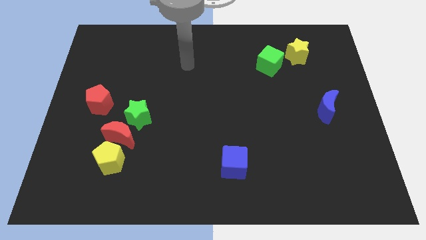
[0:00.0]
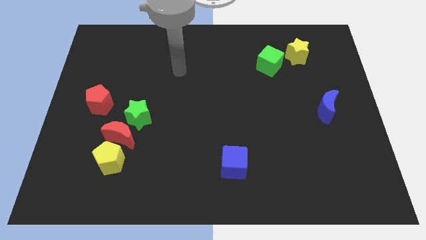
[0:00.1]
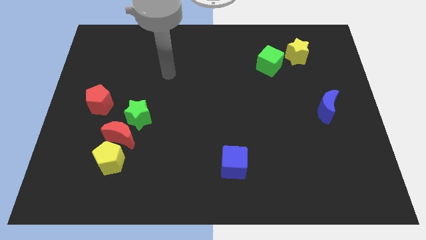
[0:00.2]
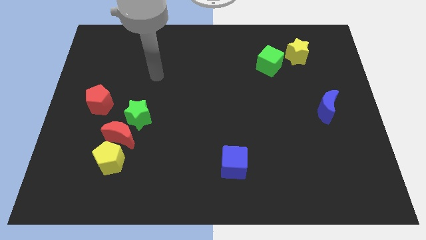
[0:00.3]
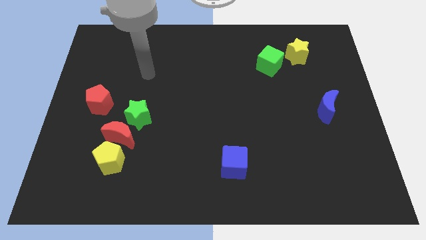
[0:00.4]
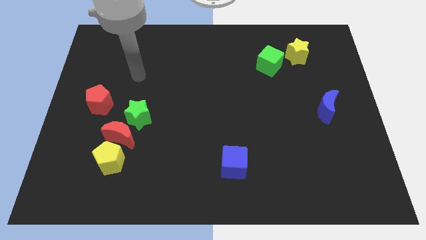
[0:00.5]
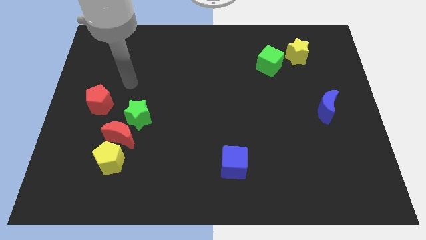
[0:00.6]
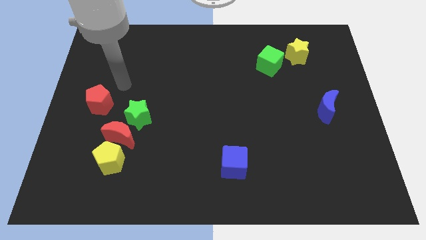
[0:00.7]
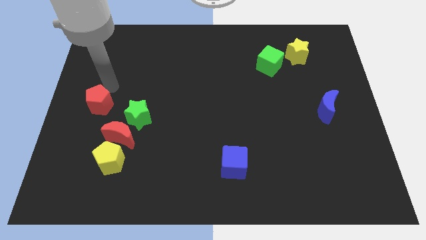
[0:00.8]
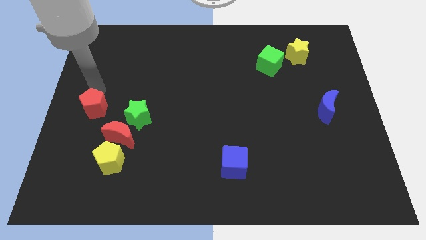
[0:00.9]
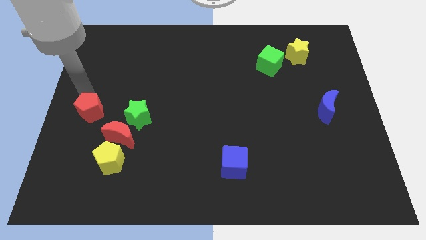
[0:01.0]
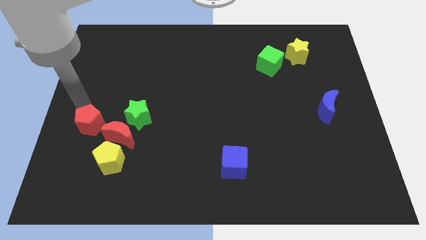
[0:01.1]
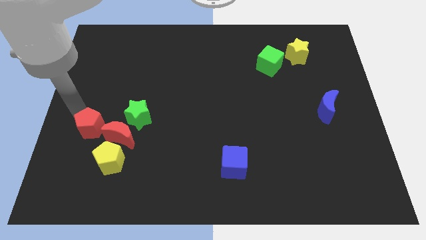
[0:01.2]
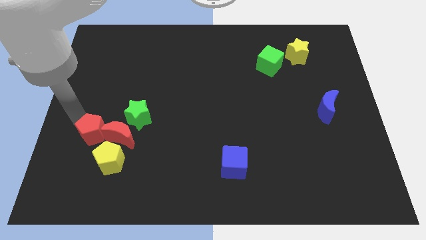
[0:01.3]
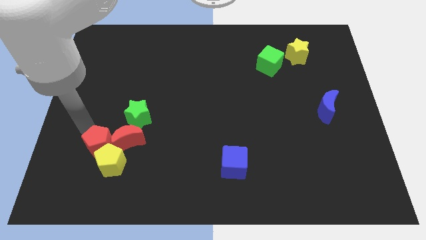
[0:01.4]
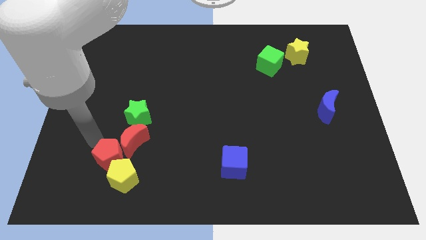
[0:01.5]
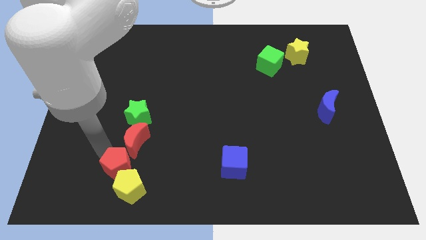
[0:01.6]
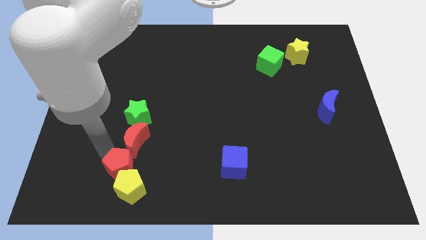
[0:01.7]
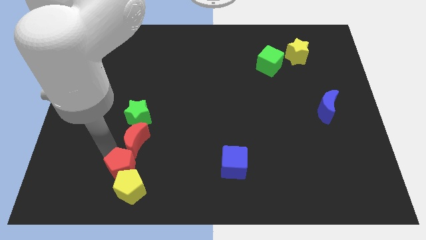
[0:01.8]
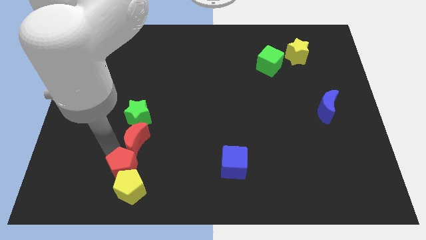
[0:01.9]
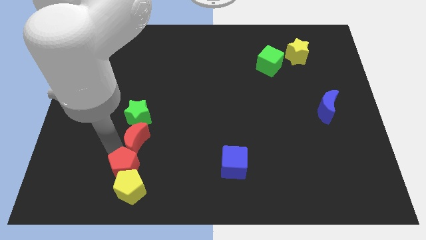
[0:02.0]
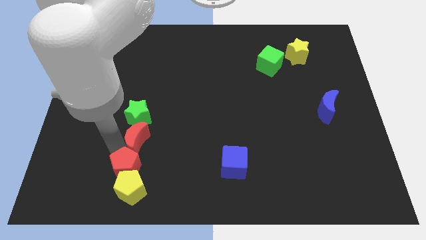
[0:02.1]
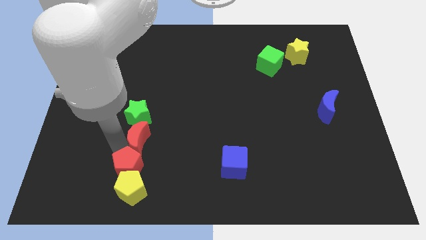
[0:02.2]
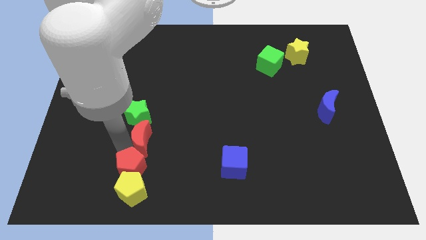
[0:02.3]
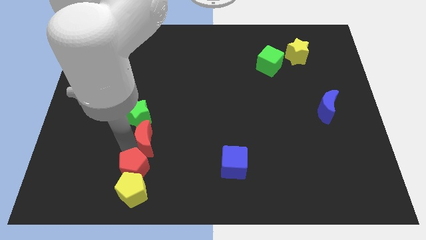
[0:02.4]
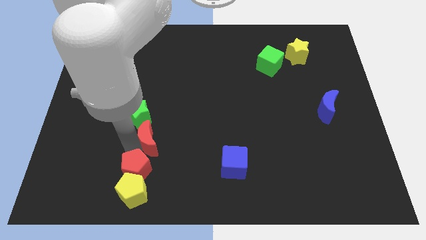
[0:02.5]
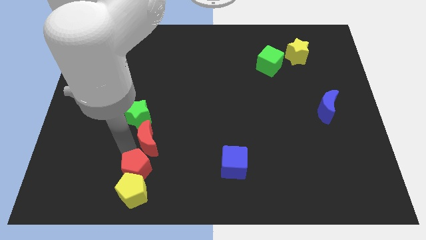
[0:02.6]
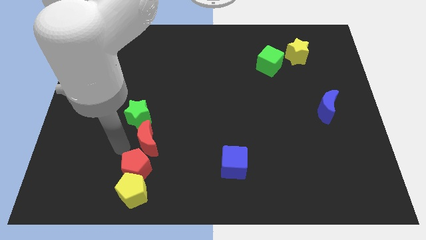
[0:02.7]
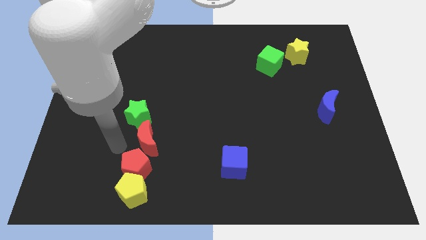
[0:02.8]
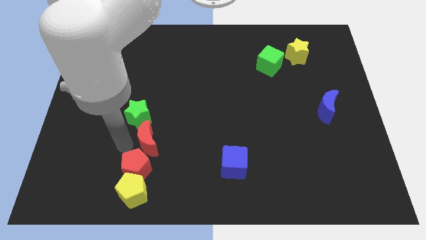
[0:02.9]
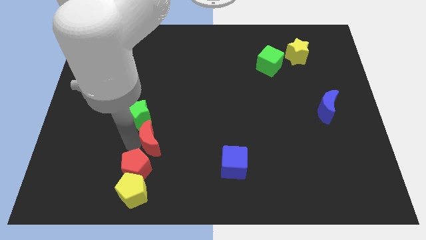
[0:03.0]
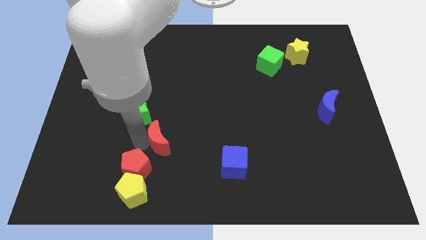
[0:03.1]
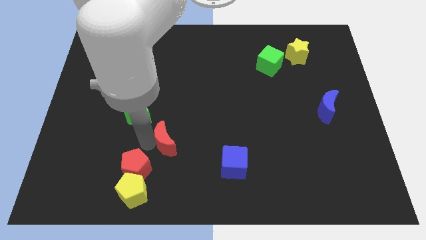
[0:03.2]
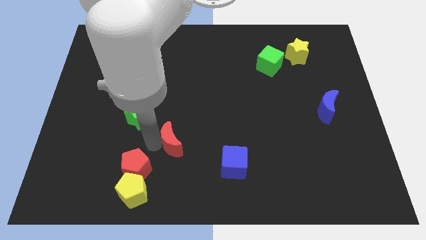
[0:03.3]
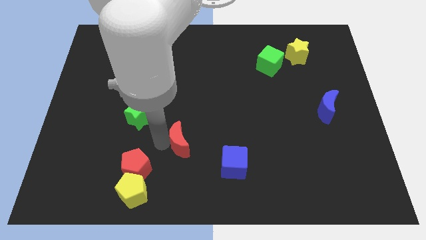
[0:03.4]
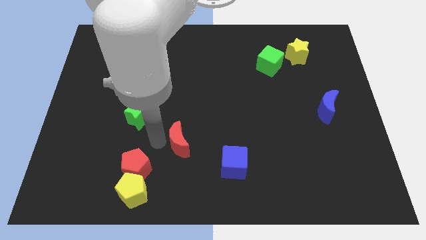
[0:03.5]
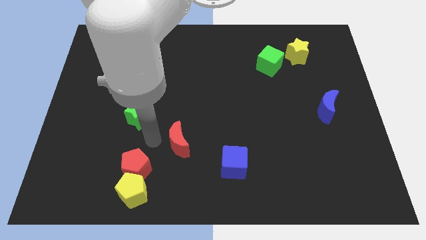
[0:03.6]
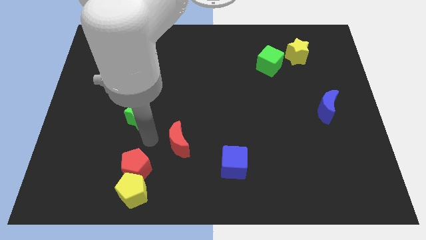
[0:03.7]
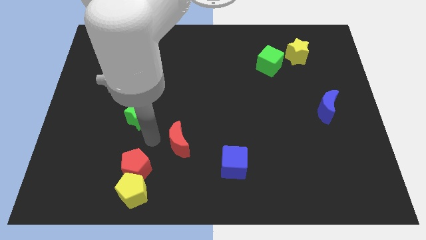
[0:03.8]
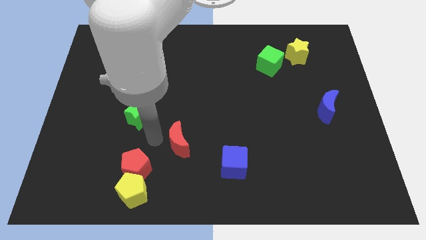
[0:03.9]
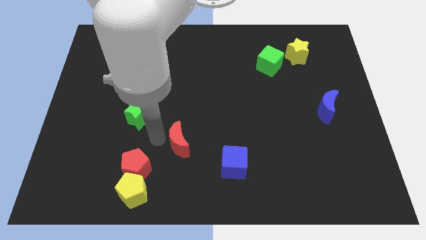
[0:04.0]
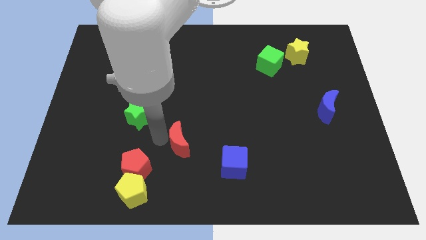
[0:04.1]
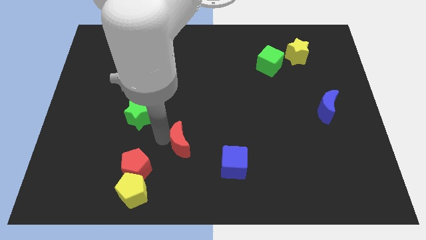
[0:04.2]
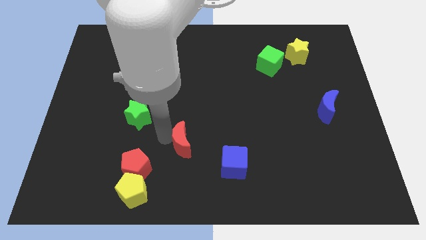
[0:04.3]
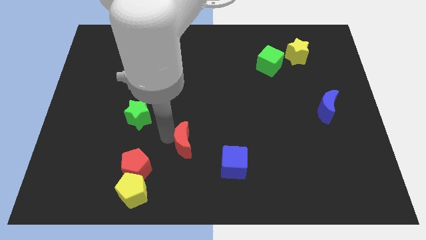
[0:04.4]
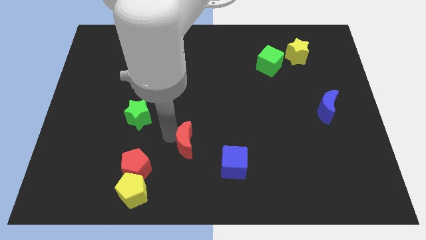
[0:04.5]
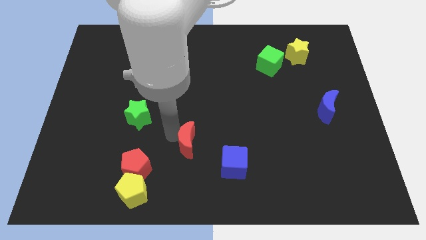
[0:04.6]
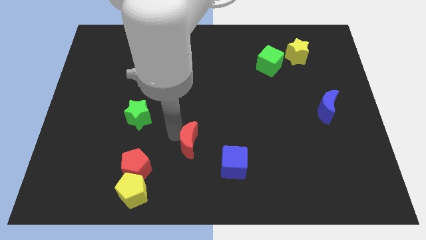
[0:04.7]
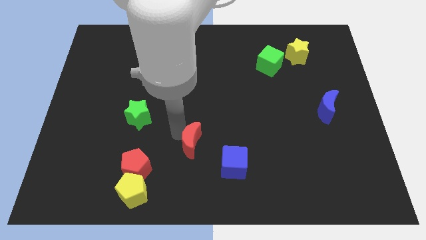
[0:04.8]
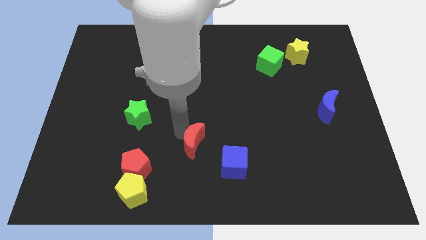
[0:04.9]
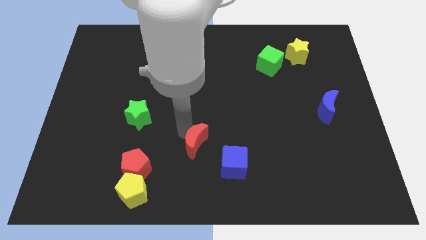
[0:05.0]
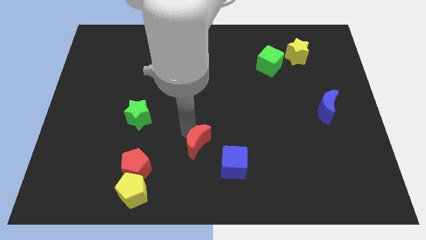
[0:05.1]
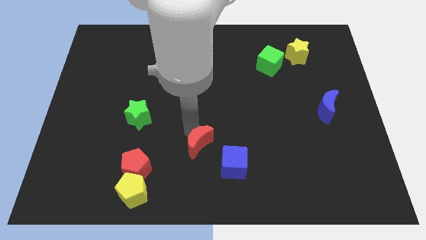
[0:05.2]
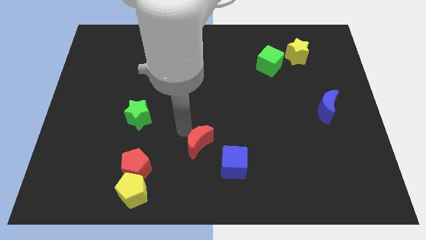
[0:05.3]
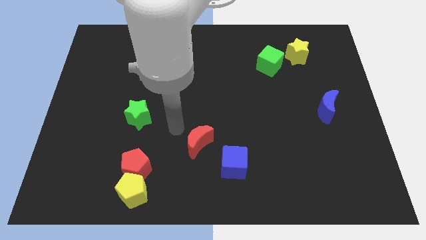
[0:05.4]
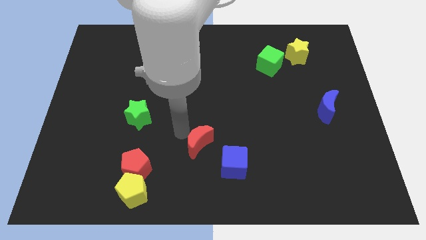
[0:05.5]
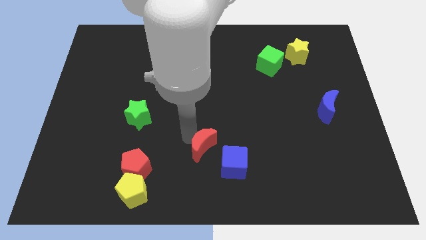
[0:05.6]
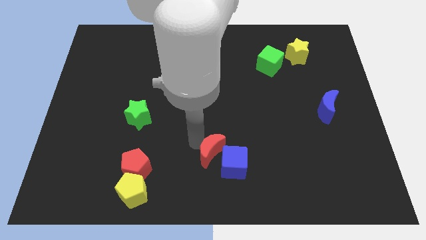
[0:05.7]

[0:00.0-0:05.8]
move the red moon close to the blue cube

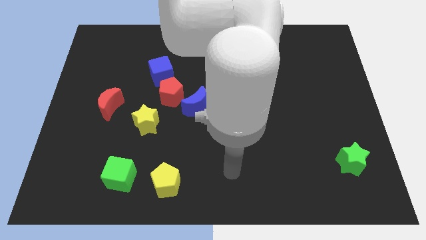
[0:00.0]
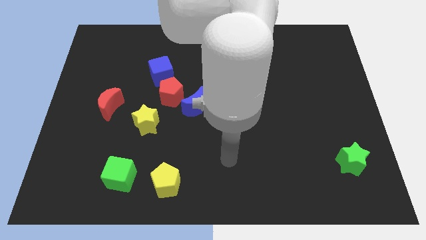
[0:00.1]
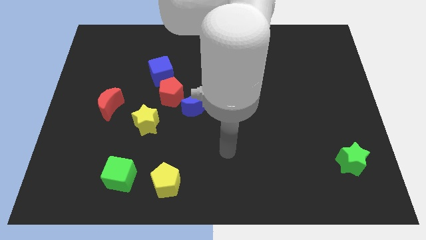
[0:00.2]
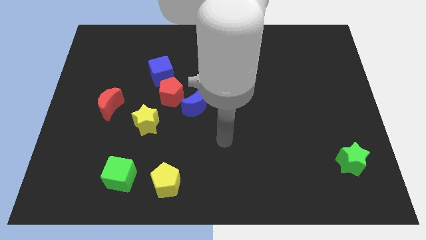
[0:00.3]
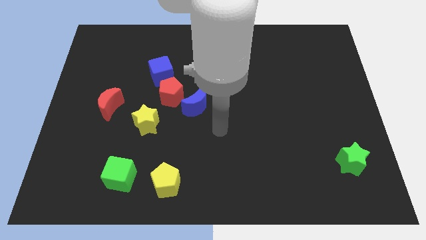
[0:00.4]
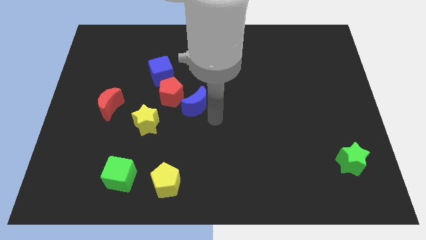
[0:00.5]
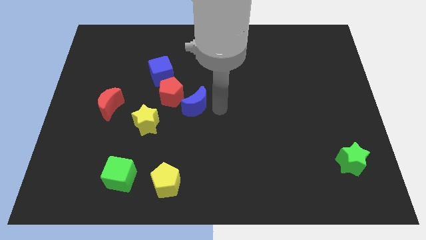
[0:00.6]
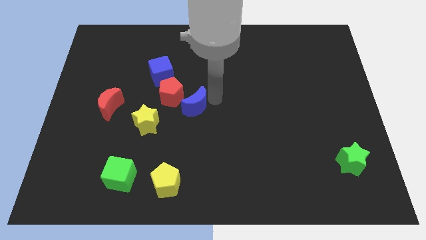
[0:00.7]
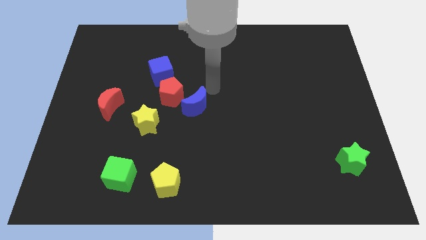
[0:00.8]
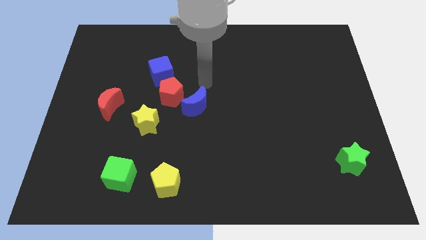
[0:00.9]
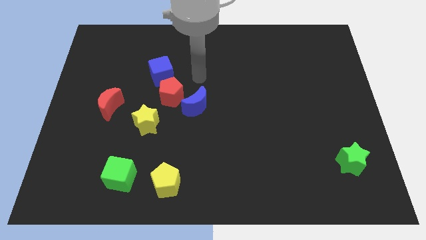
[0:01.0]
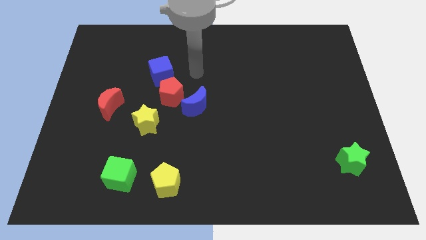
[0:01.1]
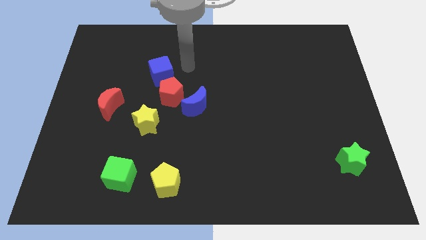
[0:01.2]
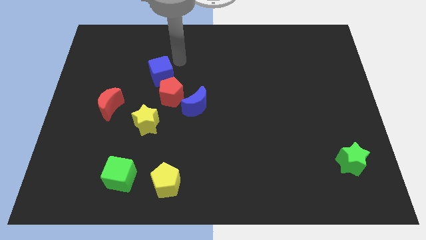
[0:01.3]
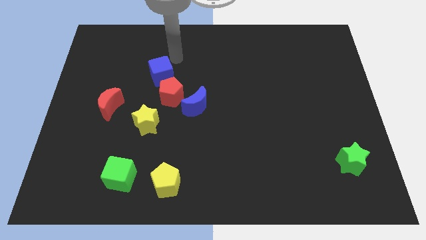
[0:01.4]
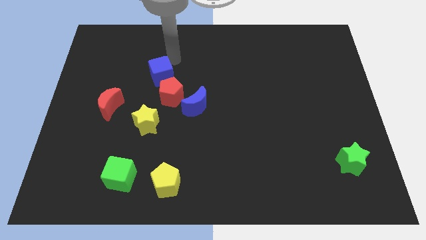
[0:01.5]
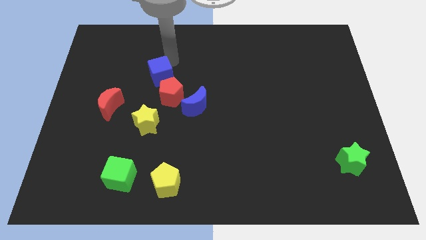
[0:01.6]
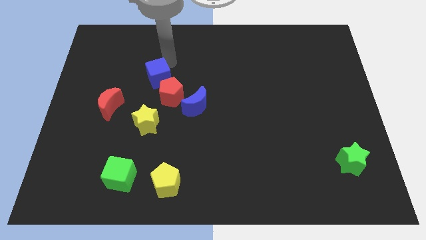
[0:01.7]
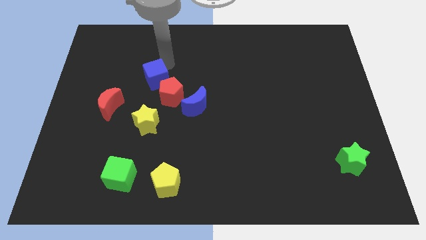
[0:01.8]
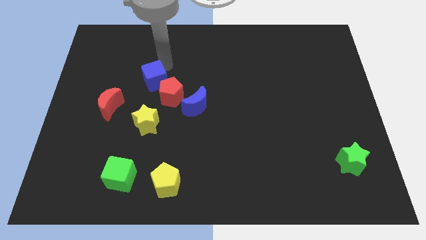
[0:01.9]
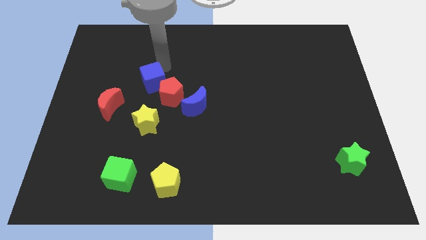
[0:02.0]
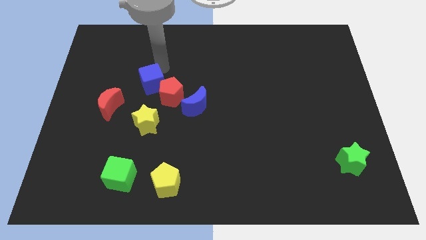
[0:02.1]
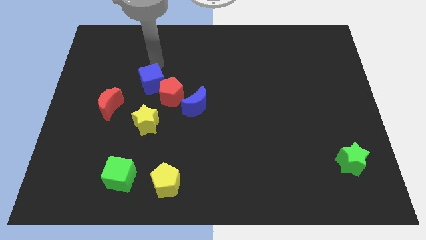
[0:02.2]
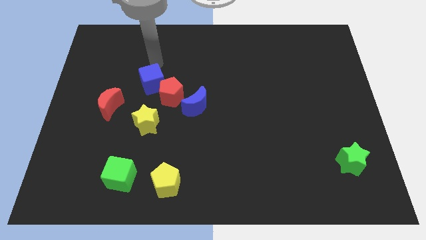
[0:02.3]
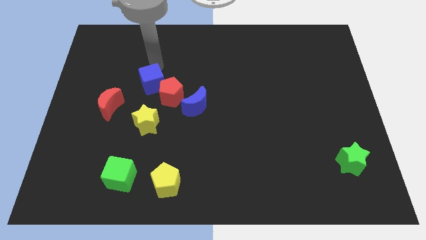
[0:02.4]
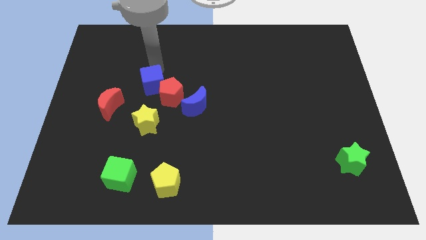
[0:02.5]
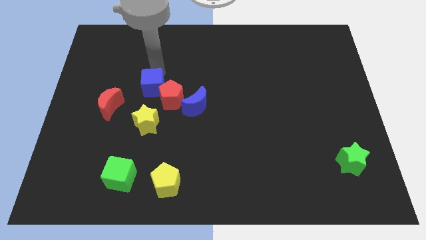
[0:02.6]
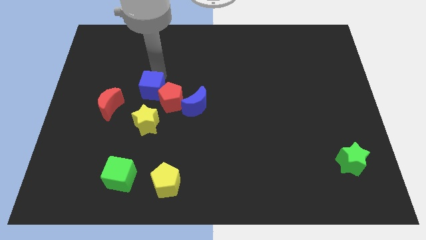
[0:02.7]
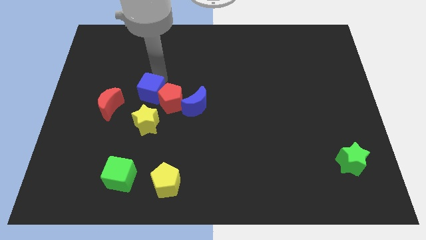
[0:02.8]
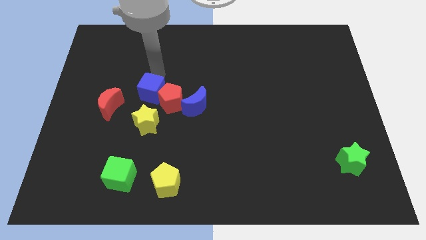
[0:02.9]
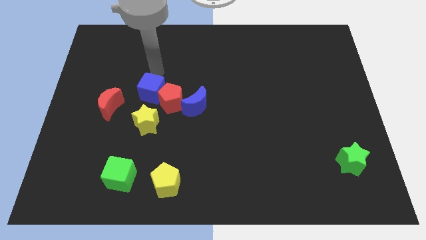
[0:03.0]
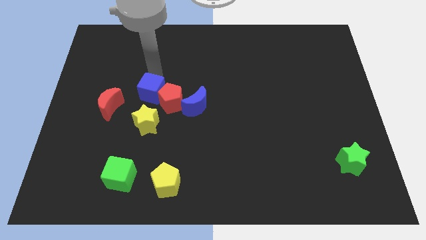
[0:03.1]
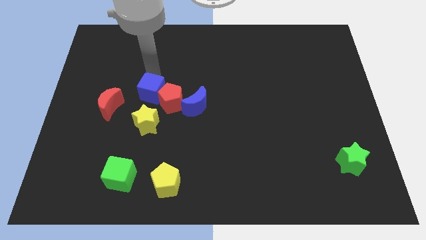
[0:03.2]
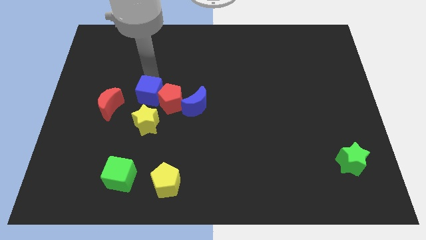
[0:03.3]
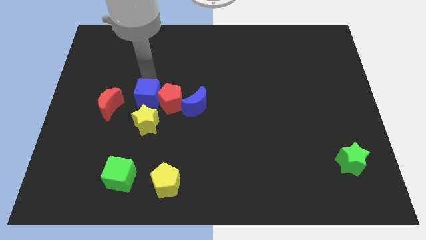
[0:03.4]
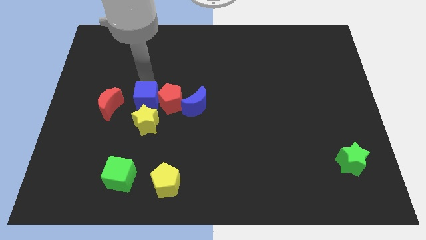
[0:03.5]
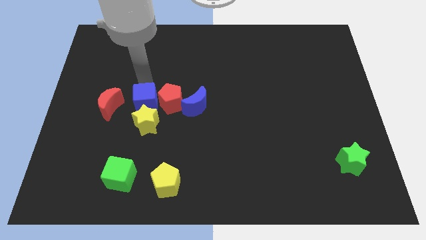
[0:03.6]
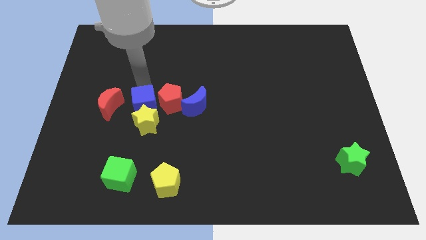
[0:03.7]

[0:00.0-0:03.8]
slide the blue cube close to the yellow star
